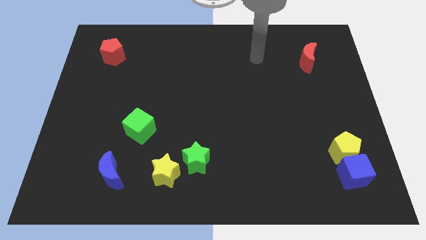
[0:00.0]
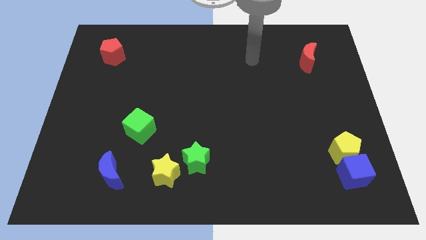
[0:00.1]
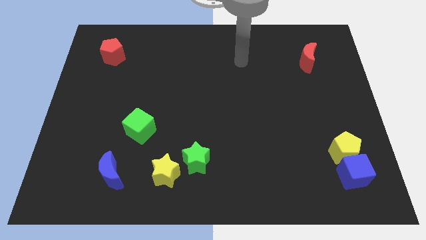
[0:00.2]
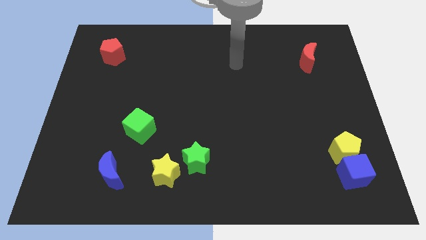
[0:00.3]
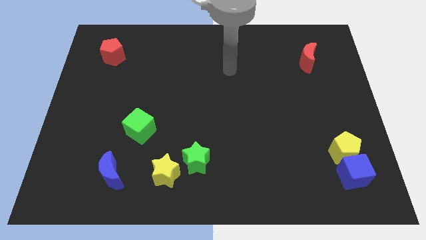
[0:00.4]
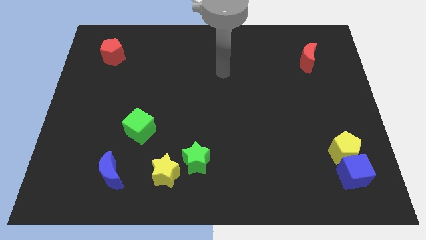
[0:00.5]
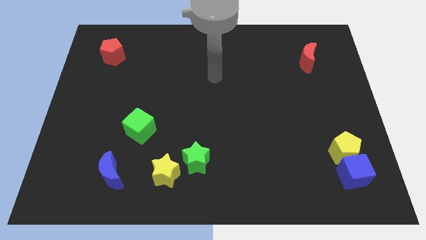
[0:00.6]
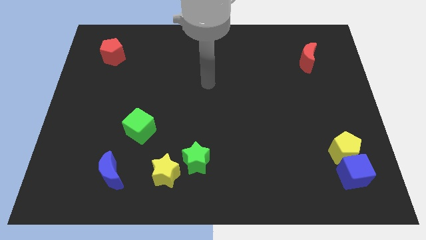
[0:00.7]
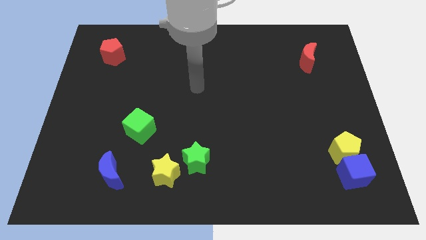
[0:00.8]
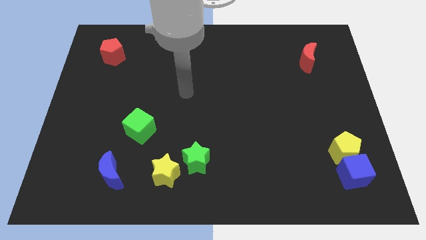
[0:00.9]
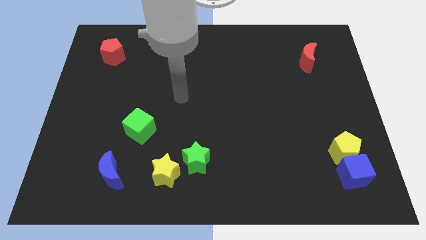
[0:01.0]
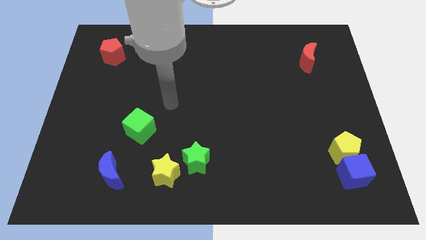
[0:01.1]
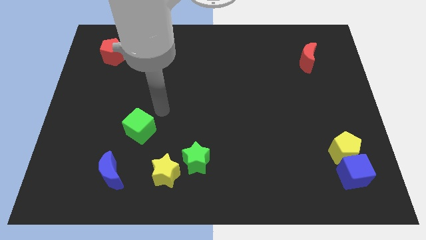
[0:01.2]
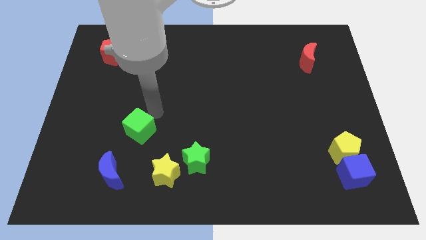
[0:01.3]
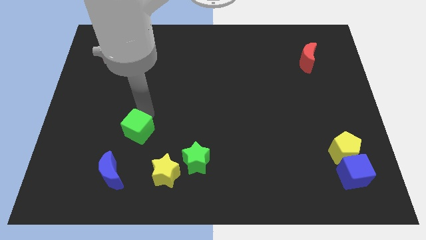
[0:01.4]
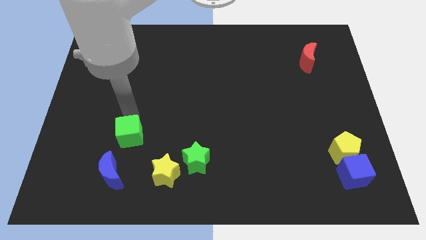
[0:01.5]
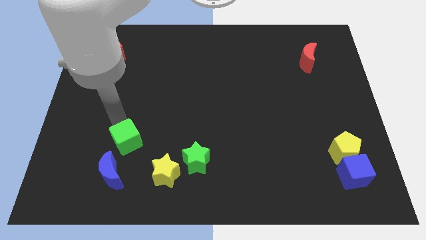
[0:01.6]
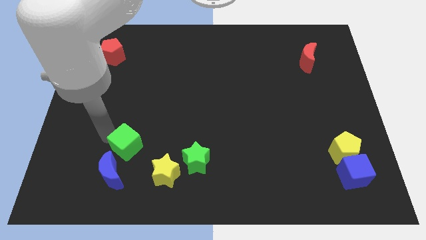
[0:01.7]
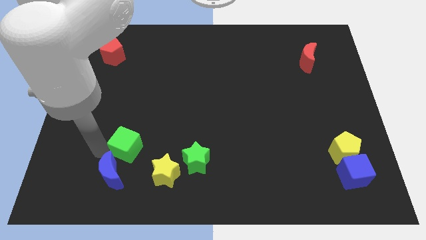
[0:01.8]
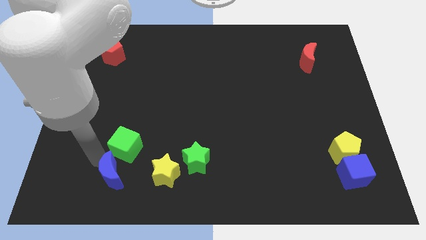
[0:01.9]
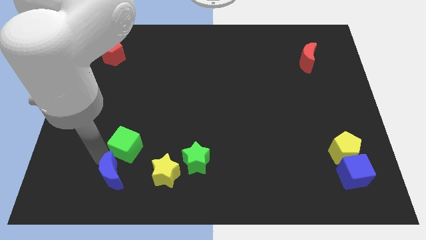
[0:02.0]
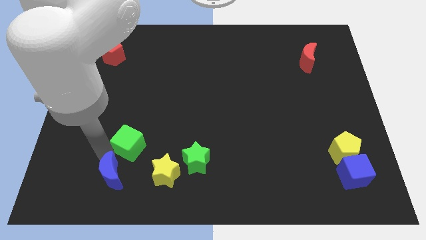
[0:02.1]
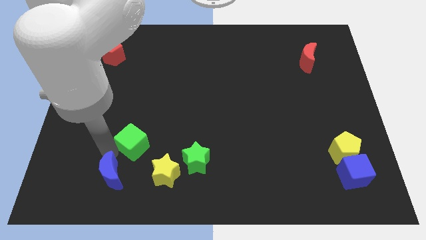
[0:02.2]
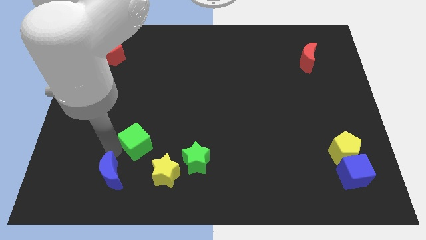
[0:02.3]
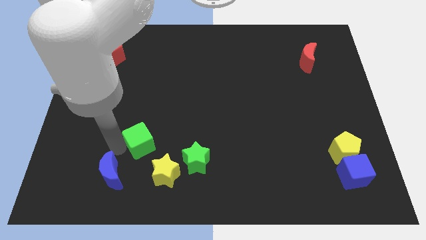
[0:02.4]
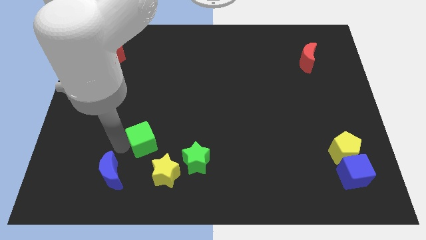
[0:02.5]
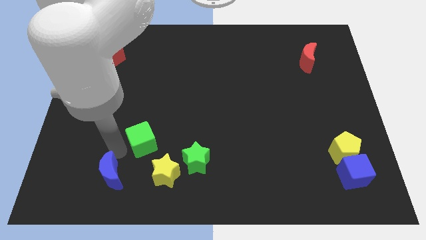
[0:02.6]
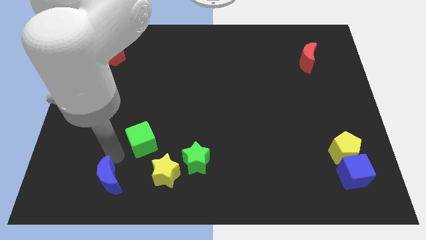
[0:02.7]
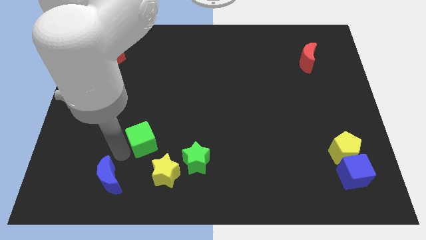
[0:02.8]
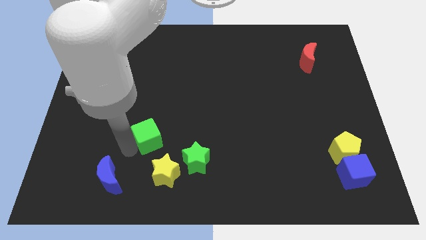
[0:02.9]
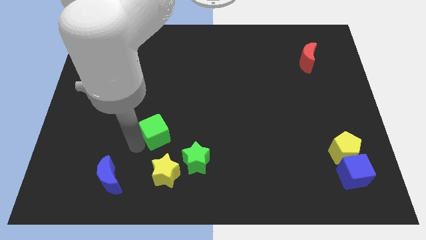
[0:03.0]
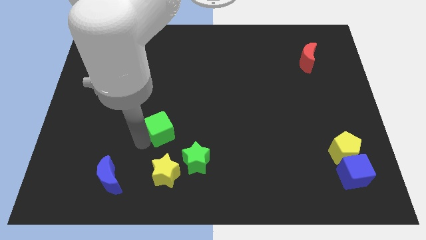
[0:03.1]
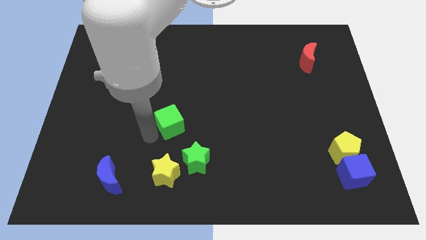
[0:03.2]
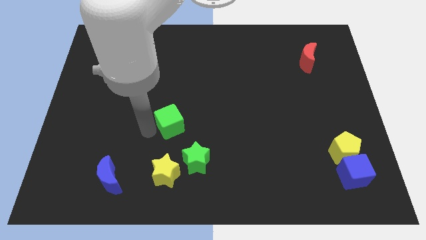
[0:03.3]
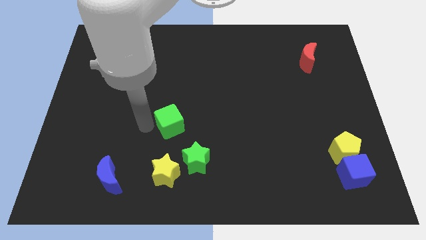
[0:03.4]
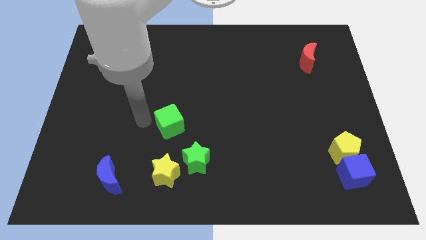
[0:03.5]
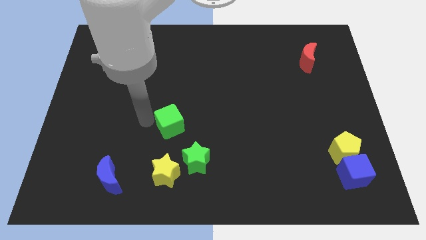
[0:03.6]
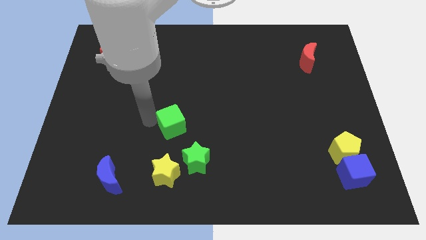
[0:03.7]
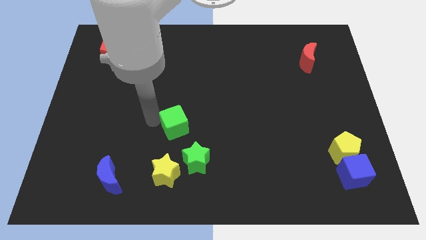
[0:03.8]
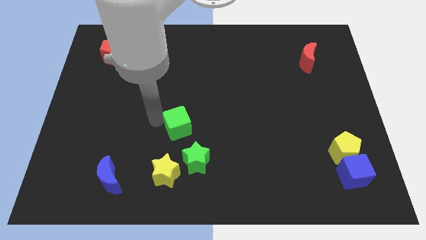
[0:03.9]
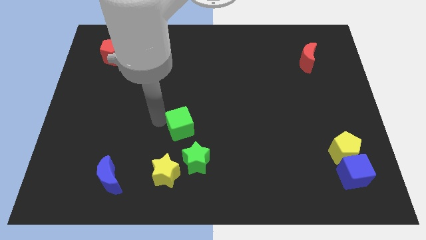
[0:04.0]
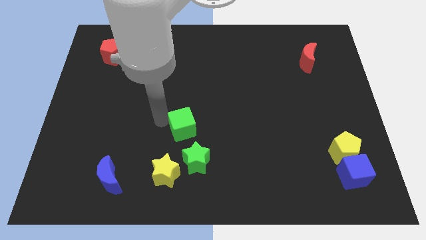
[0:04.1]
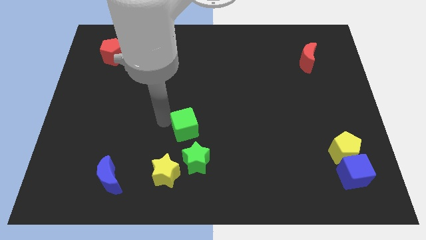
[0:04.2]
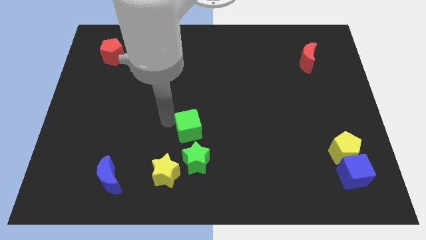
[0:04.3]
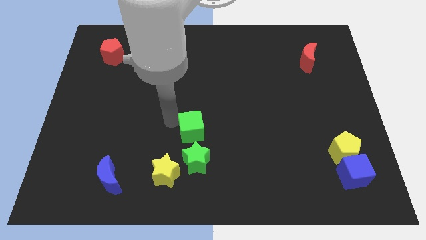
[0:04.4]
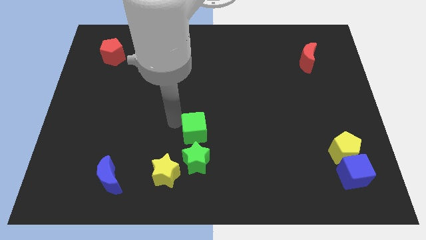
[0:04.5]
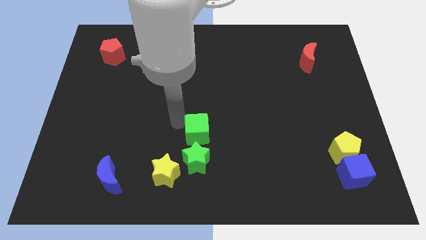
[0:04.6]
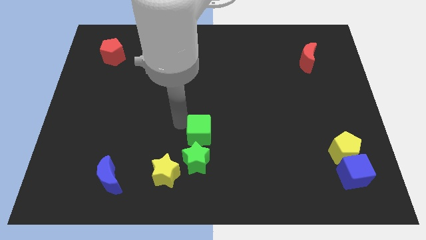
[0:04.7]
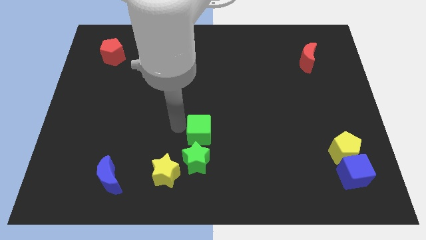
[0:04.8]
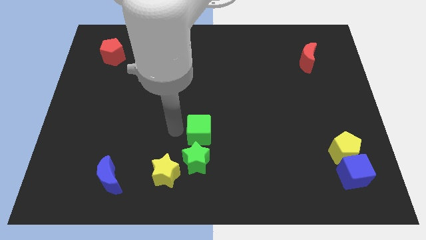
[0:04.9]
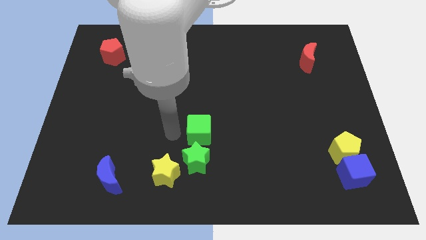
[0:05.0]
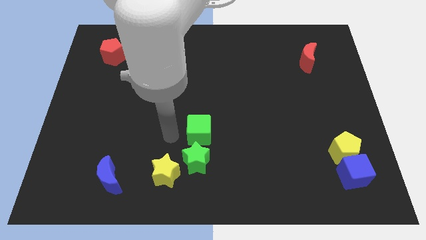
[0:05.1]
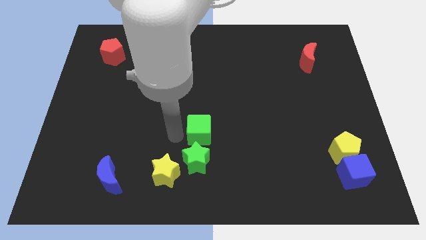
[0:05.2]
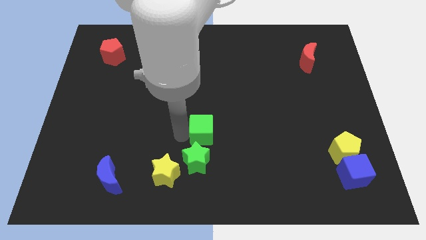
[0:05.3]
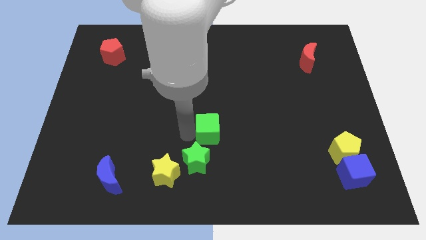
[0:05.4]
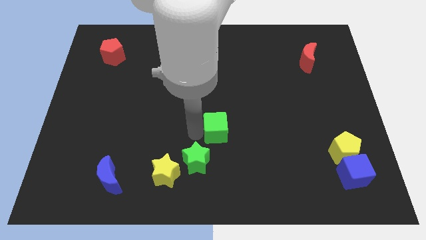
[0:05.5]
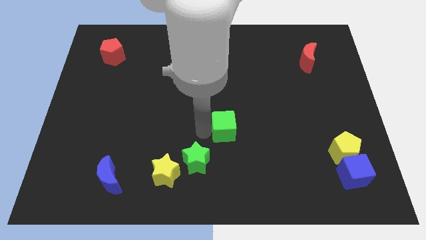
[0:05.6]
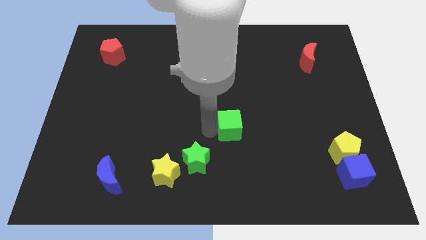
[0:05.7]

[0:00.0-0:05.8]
slide the green cube right

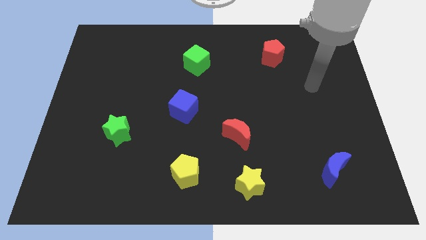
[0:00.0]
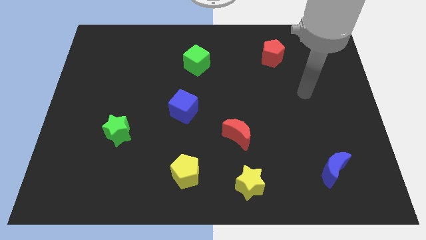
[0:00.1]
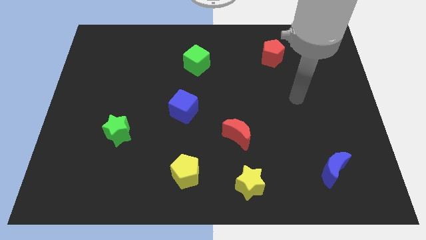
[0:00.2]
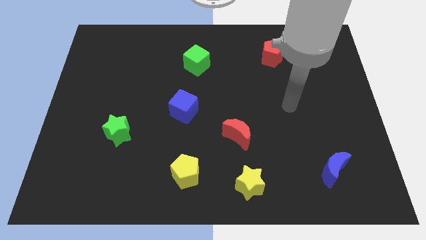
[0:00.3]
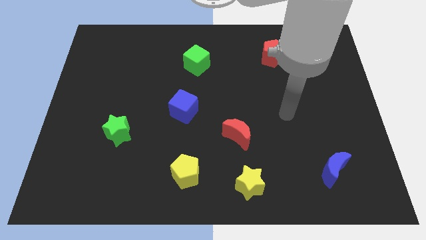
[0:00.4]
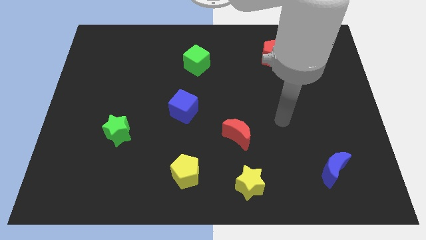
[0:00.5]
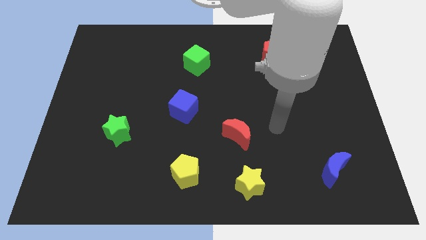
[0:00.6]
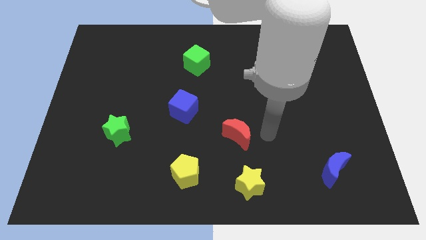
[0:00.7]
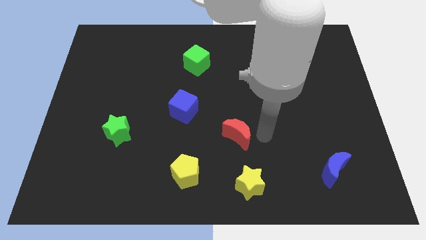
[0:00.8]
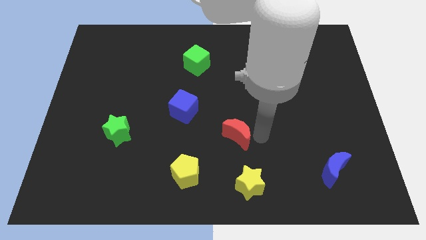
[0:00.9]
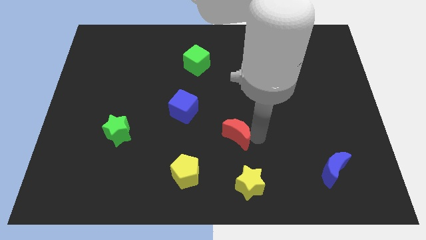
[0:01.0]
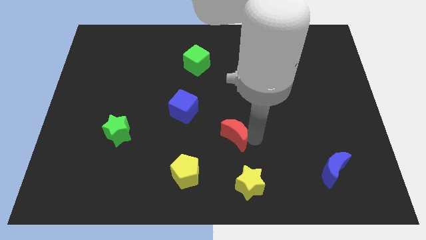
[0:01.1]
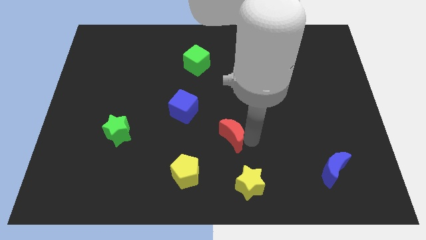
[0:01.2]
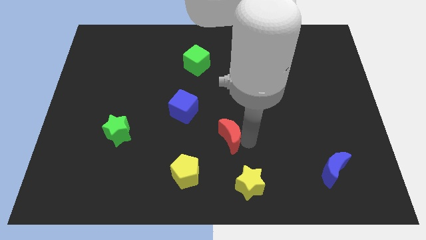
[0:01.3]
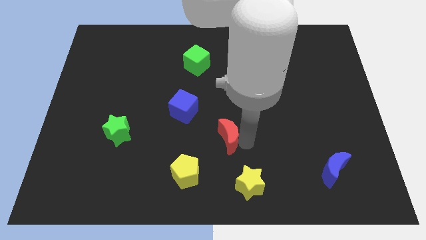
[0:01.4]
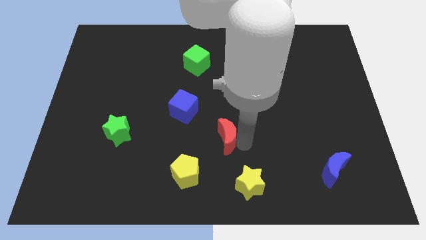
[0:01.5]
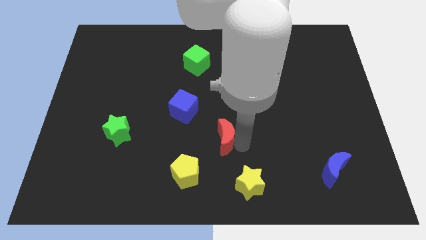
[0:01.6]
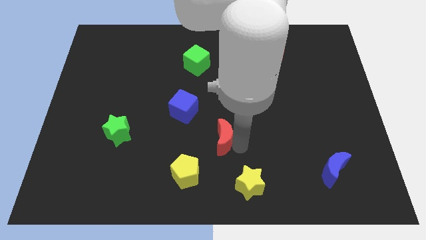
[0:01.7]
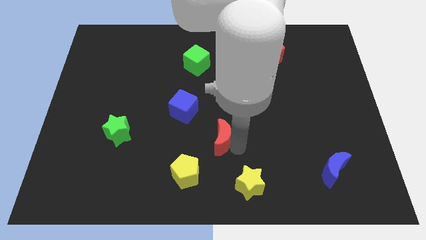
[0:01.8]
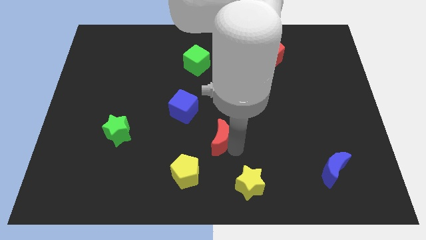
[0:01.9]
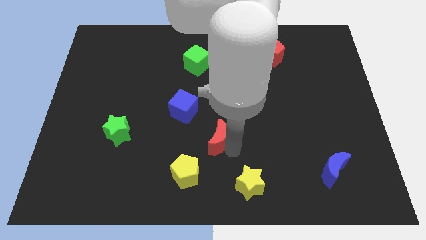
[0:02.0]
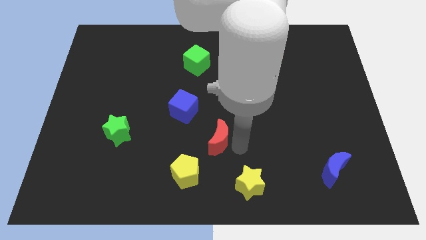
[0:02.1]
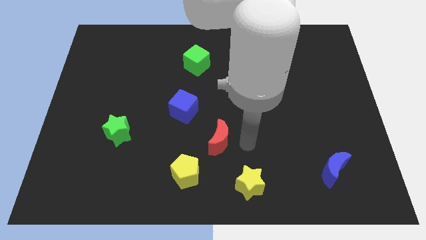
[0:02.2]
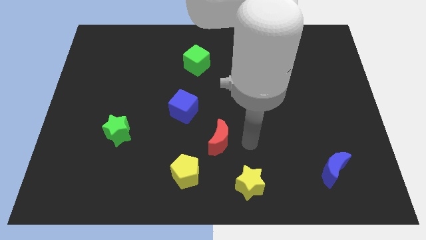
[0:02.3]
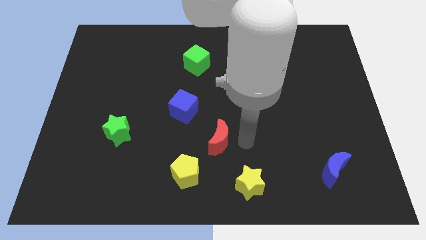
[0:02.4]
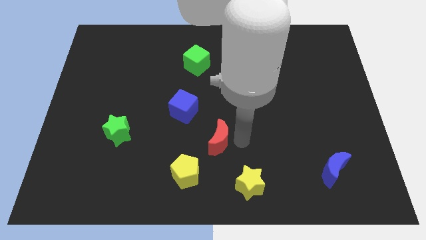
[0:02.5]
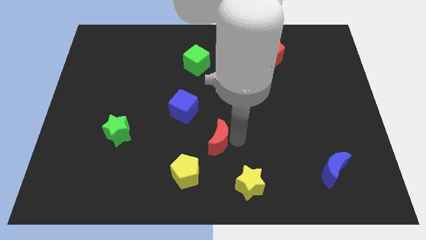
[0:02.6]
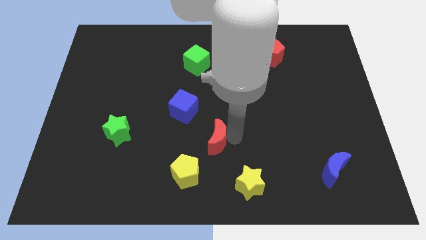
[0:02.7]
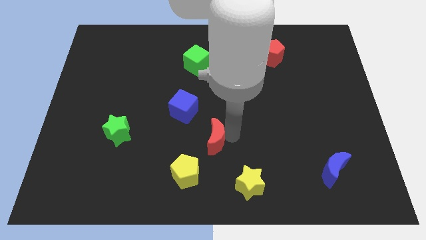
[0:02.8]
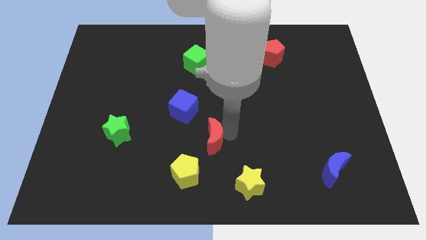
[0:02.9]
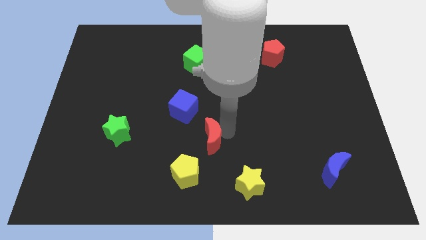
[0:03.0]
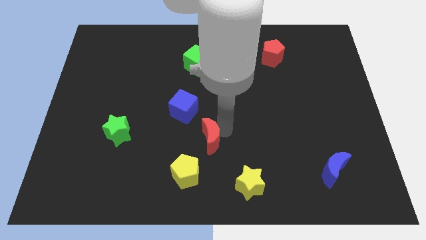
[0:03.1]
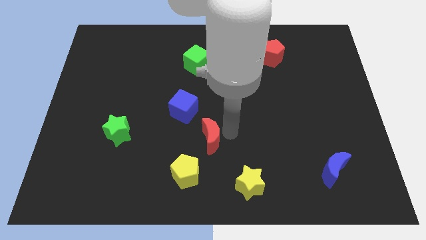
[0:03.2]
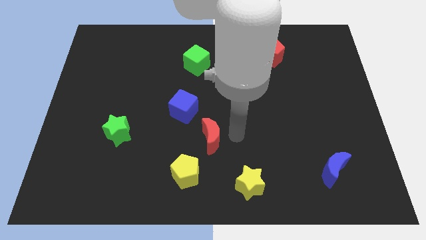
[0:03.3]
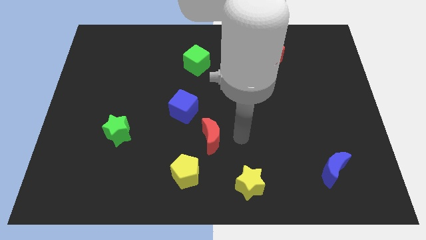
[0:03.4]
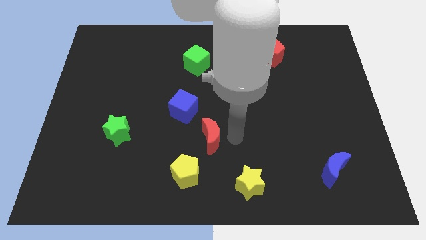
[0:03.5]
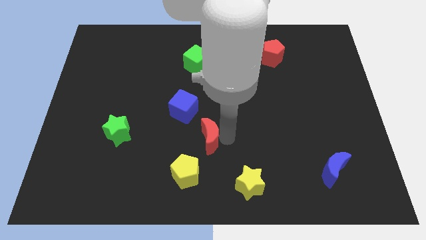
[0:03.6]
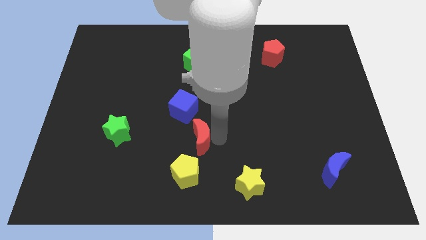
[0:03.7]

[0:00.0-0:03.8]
slightly move the red moon left
